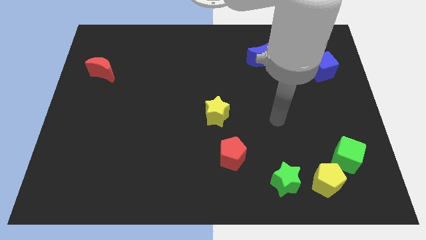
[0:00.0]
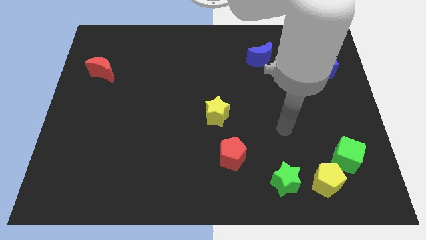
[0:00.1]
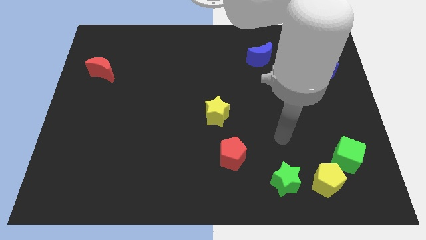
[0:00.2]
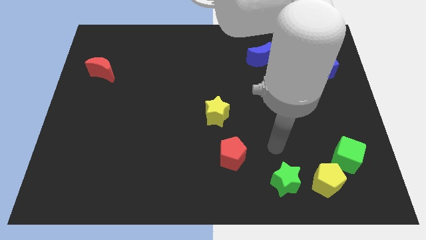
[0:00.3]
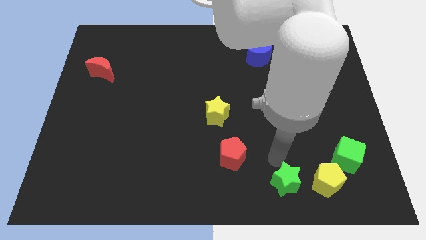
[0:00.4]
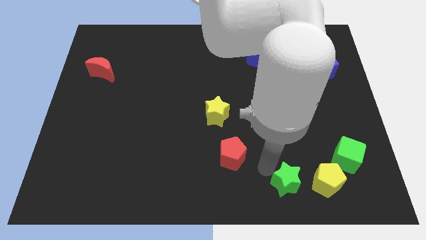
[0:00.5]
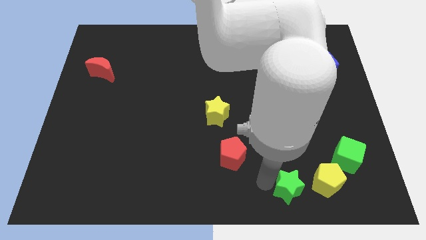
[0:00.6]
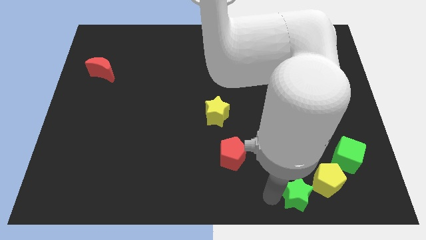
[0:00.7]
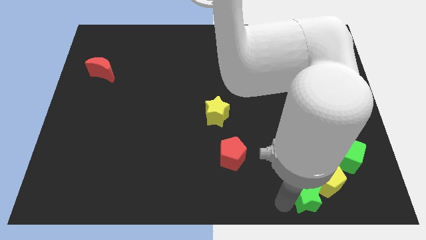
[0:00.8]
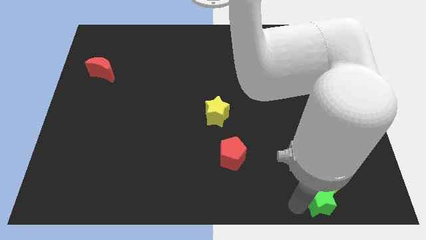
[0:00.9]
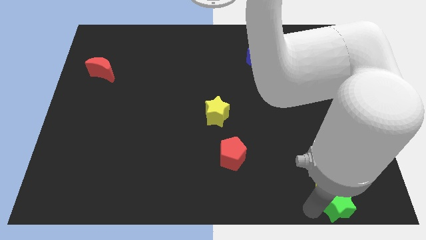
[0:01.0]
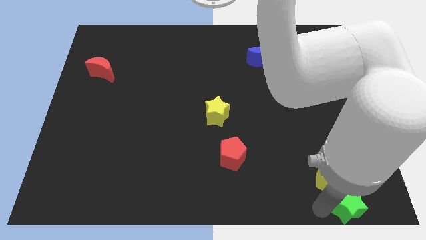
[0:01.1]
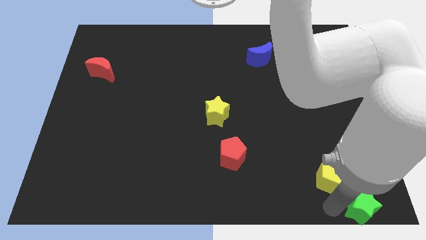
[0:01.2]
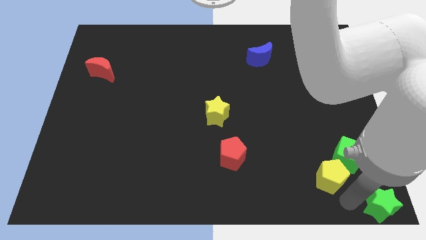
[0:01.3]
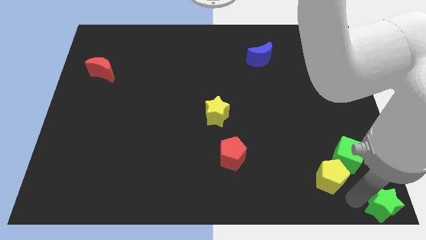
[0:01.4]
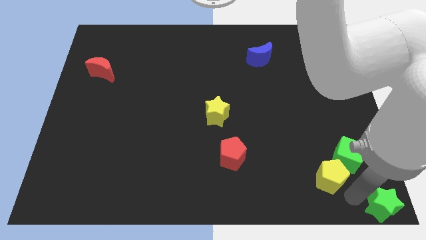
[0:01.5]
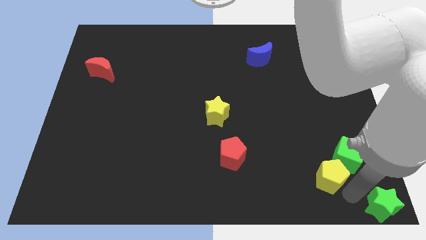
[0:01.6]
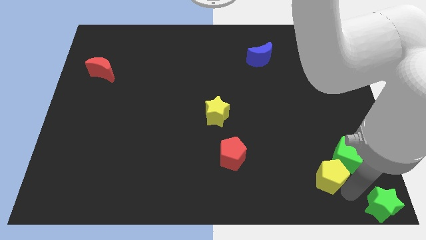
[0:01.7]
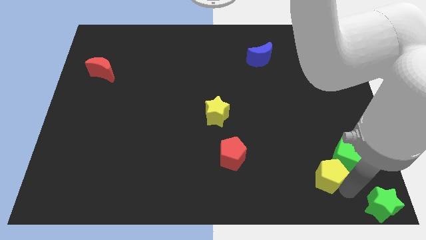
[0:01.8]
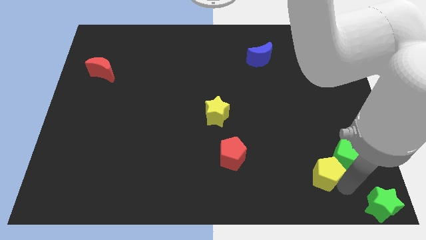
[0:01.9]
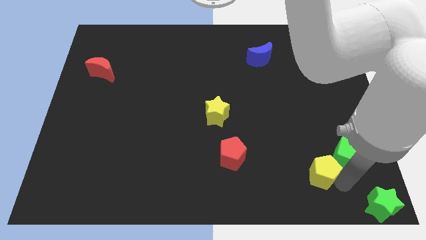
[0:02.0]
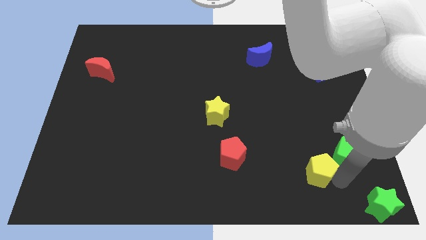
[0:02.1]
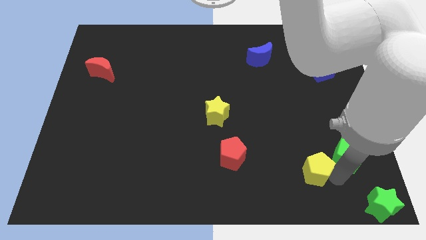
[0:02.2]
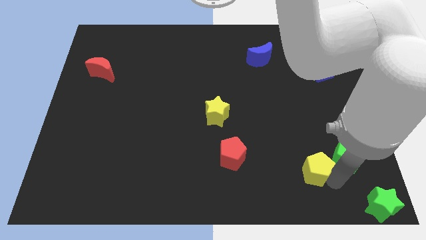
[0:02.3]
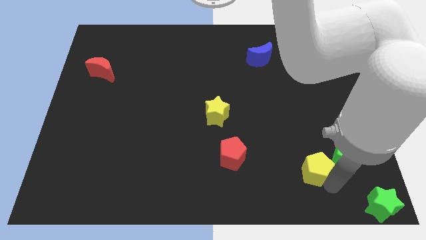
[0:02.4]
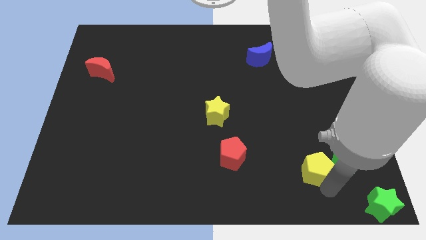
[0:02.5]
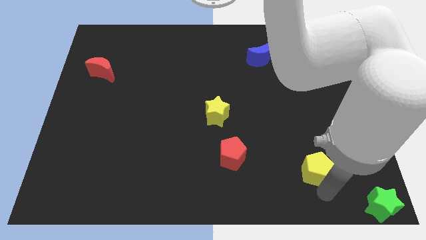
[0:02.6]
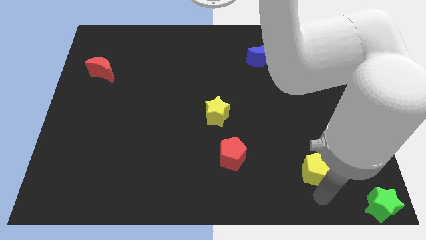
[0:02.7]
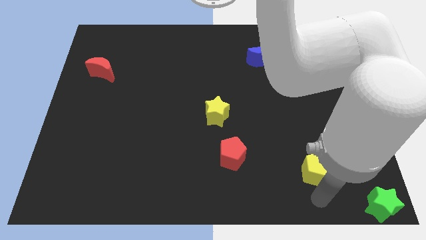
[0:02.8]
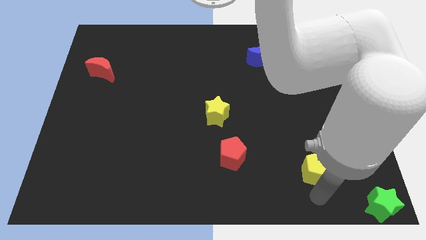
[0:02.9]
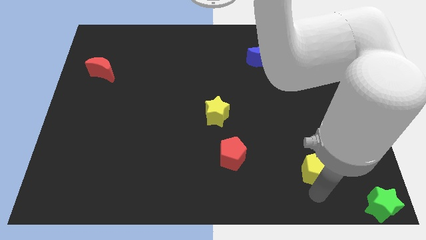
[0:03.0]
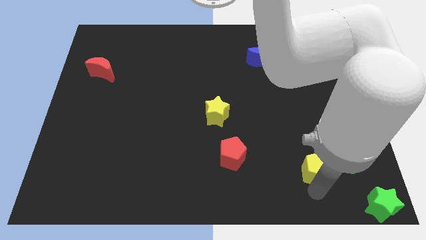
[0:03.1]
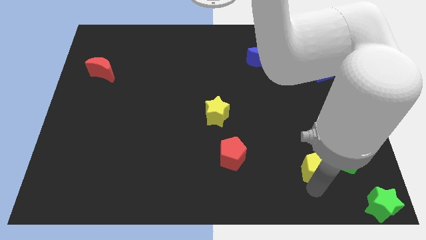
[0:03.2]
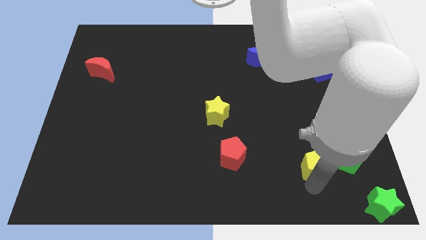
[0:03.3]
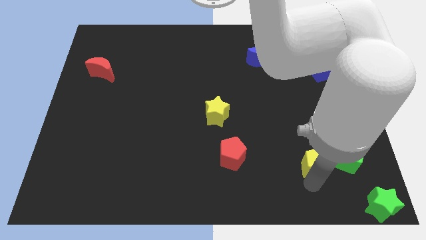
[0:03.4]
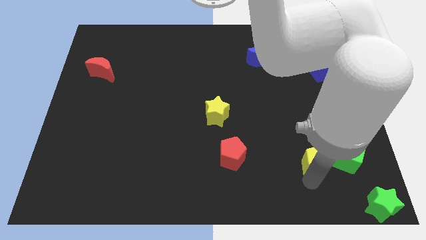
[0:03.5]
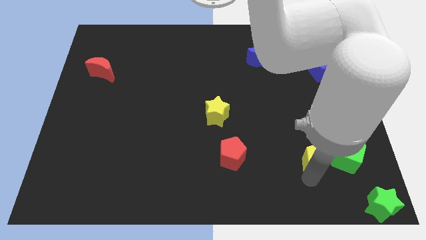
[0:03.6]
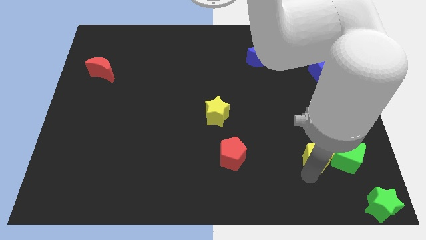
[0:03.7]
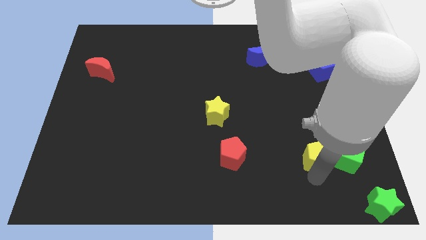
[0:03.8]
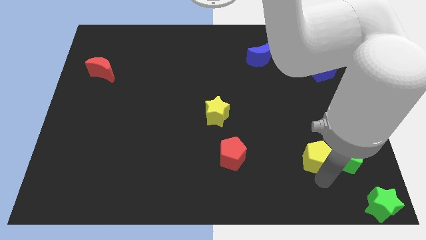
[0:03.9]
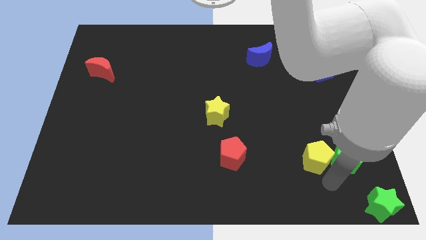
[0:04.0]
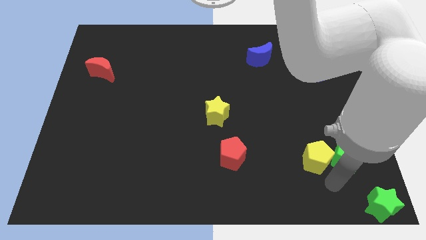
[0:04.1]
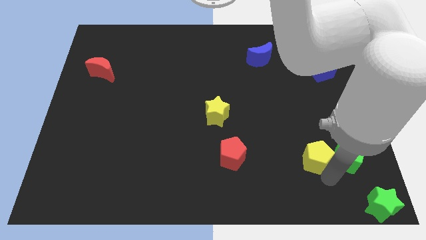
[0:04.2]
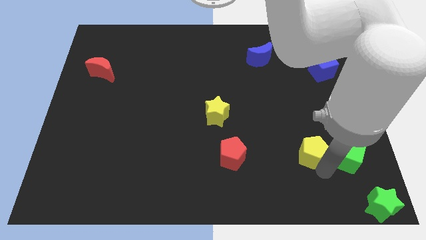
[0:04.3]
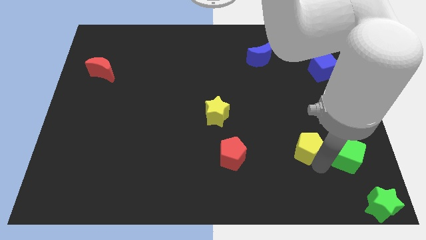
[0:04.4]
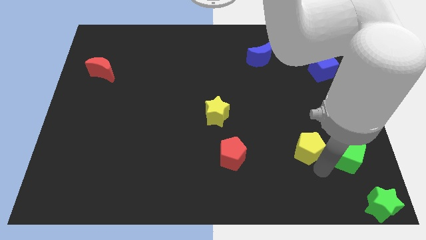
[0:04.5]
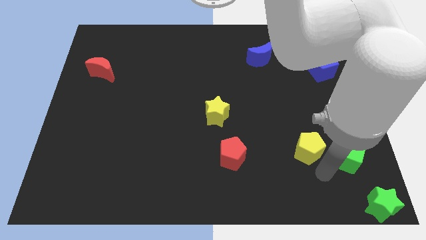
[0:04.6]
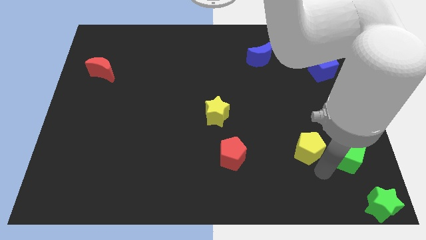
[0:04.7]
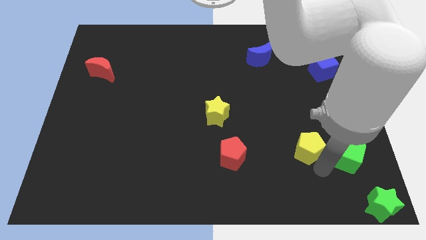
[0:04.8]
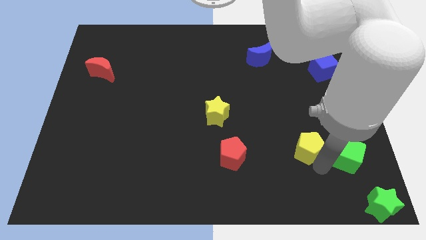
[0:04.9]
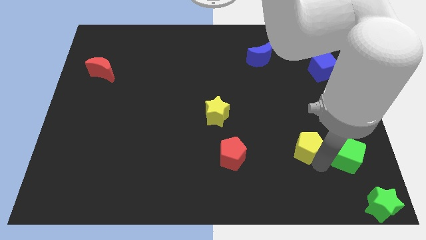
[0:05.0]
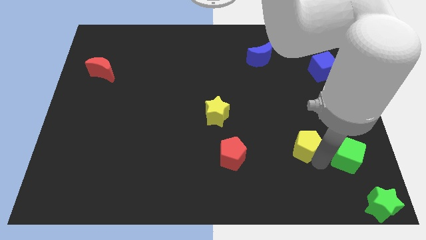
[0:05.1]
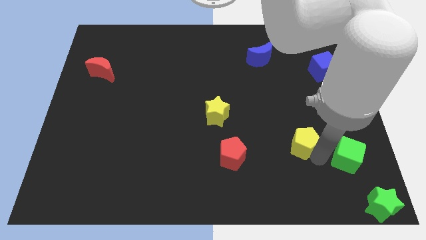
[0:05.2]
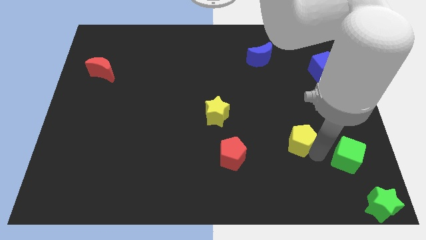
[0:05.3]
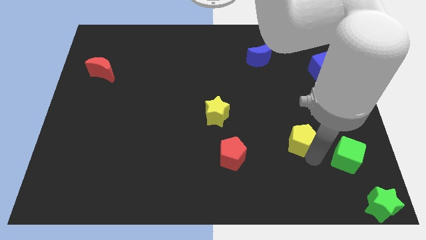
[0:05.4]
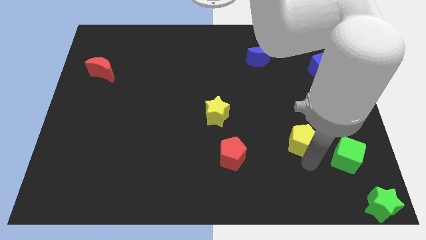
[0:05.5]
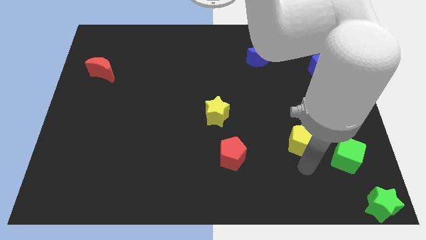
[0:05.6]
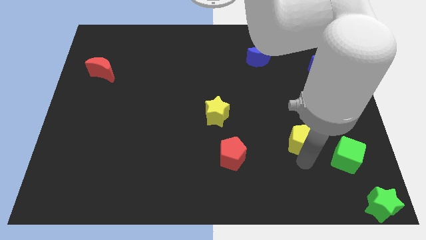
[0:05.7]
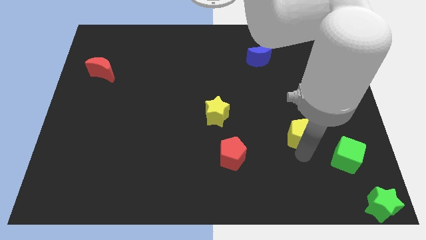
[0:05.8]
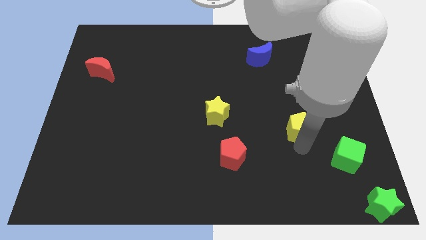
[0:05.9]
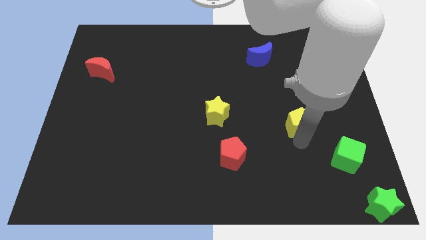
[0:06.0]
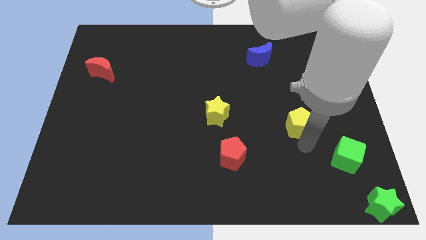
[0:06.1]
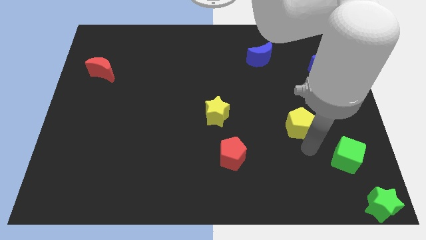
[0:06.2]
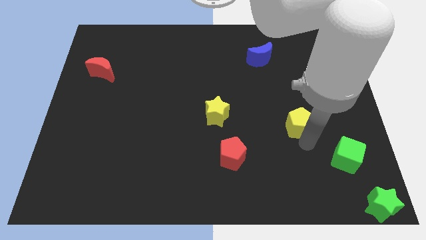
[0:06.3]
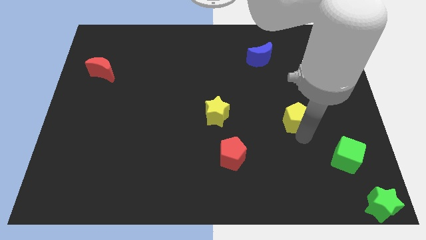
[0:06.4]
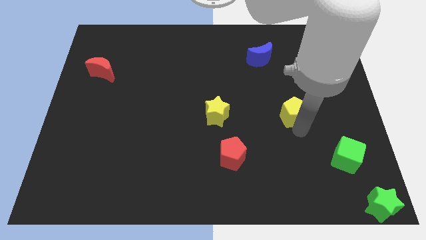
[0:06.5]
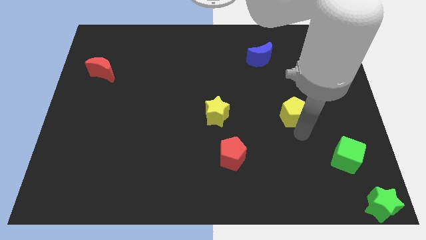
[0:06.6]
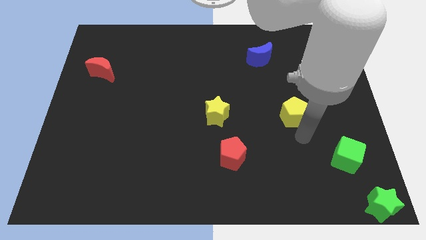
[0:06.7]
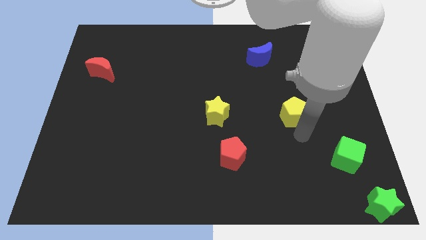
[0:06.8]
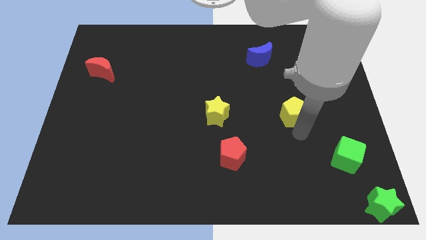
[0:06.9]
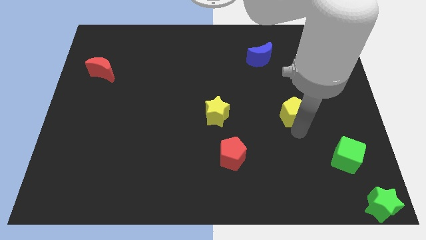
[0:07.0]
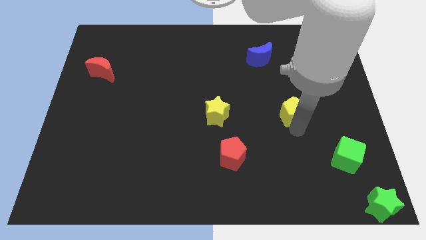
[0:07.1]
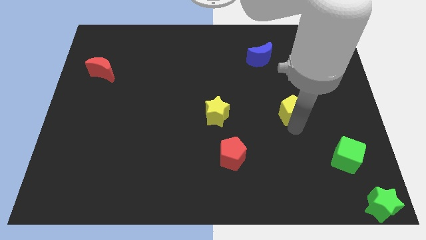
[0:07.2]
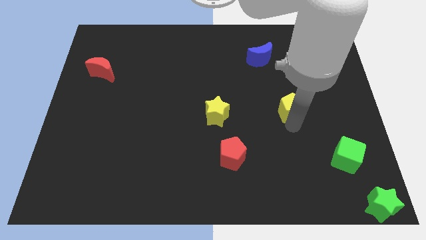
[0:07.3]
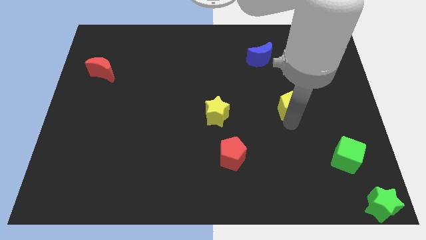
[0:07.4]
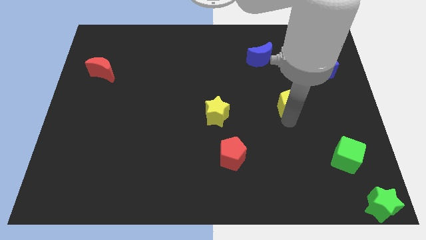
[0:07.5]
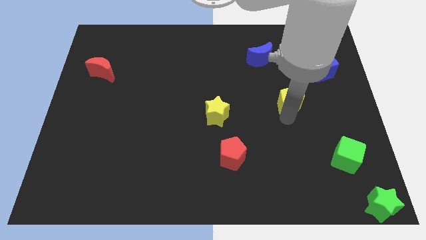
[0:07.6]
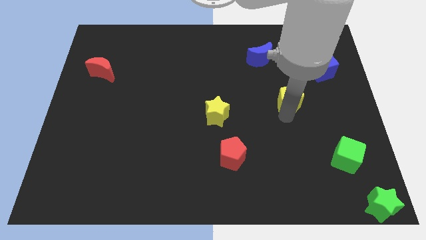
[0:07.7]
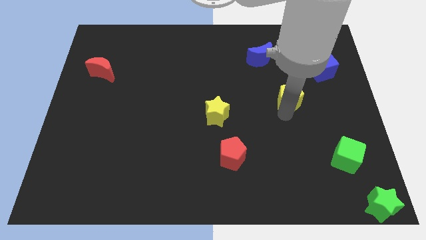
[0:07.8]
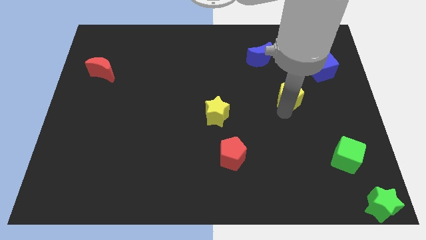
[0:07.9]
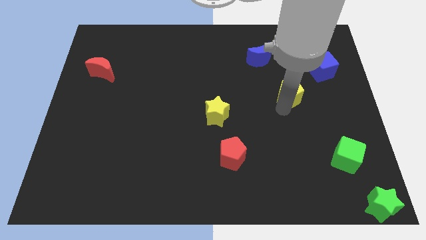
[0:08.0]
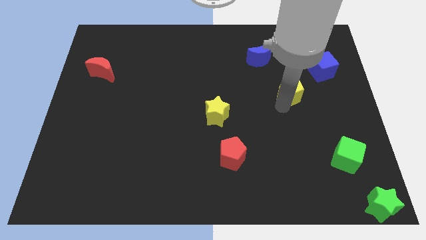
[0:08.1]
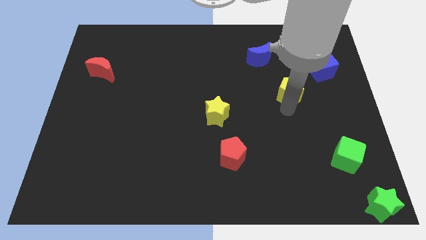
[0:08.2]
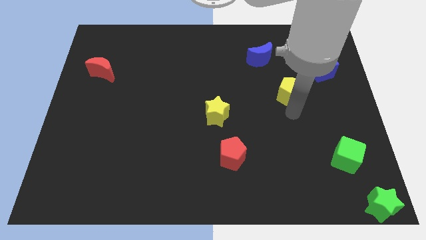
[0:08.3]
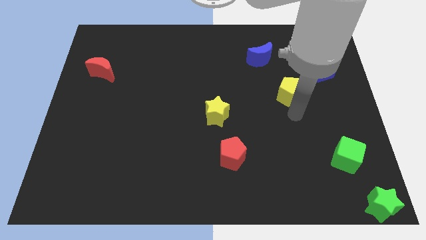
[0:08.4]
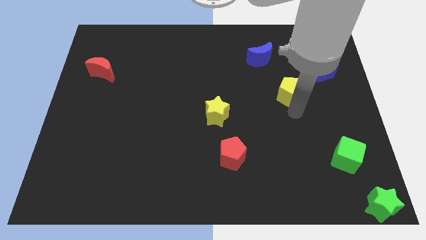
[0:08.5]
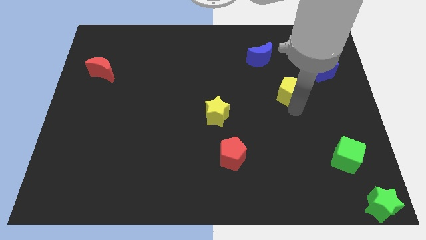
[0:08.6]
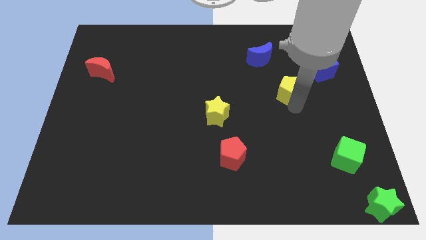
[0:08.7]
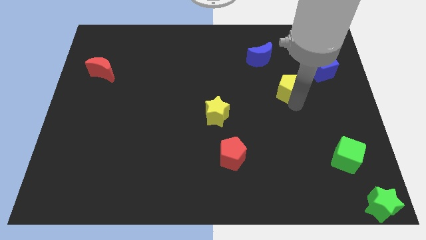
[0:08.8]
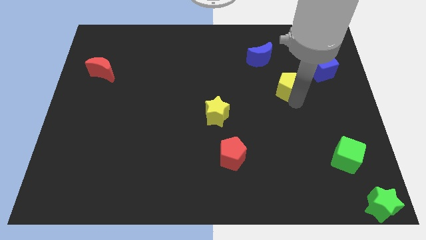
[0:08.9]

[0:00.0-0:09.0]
move the yellow pentagon to the bottom right side of the blue moon
